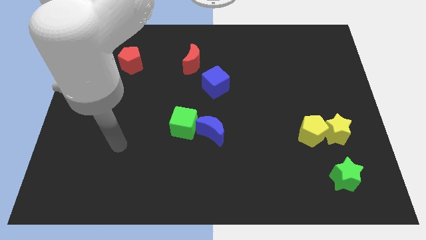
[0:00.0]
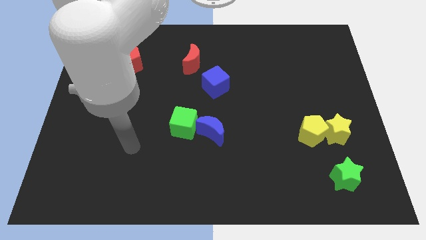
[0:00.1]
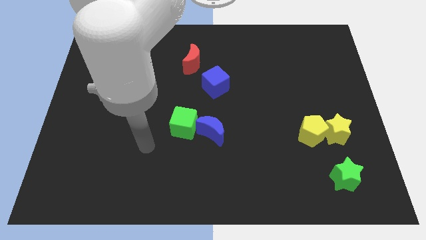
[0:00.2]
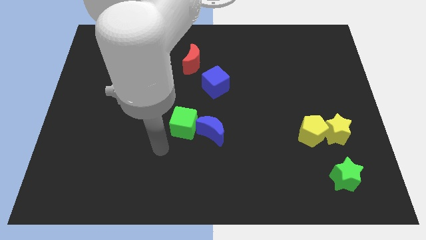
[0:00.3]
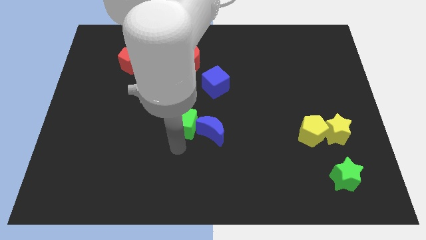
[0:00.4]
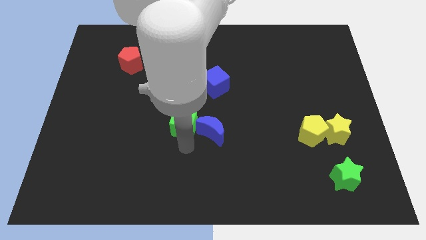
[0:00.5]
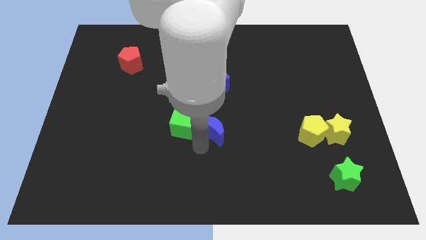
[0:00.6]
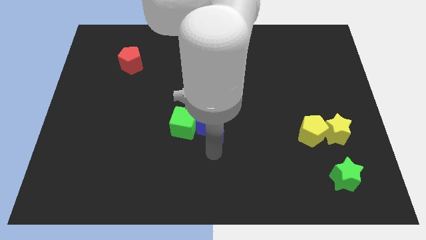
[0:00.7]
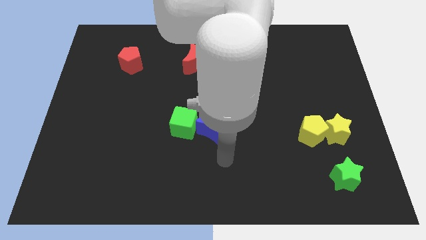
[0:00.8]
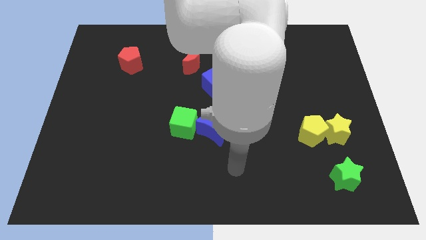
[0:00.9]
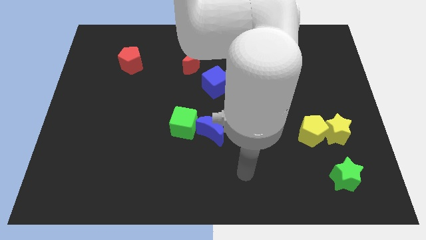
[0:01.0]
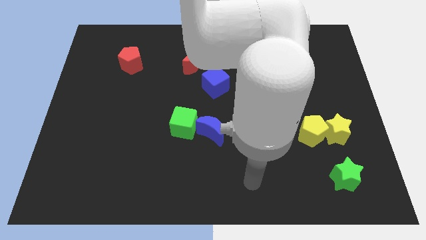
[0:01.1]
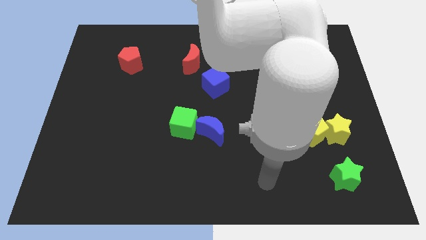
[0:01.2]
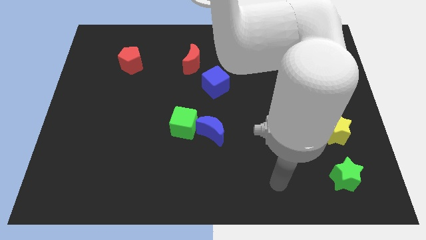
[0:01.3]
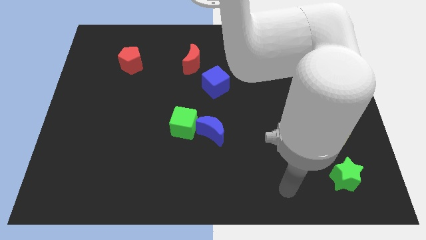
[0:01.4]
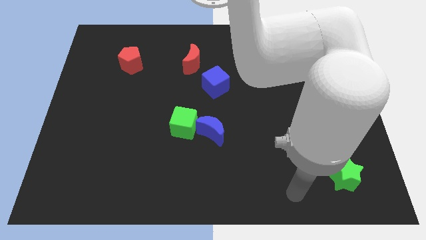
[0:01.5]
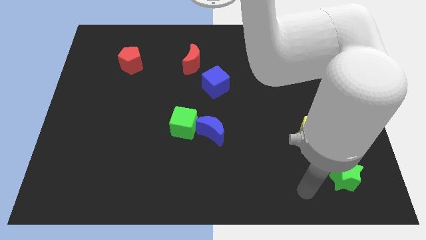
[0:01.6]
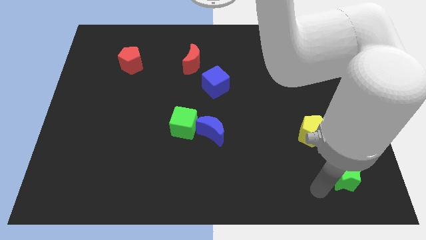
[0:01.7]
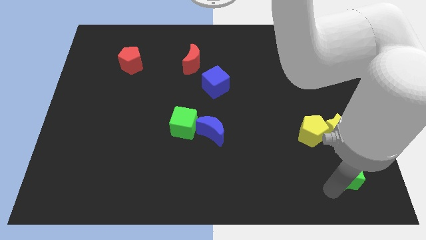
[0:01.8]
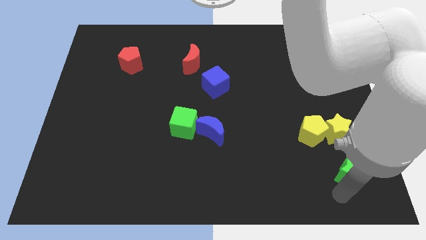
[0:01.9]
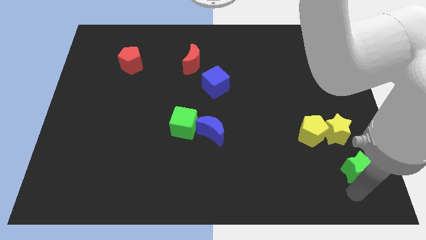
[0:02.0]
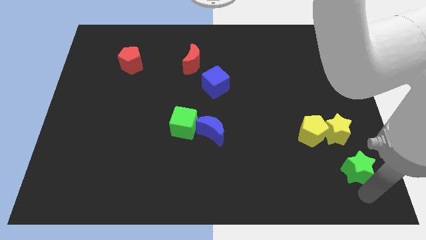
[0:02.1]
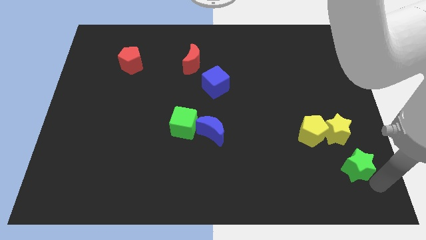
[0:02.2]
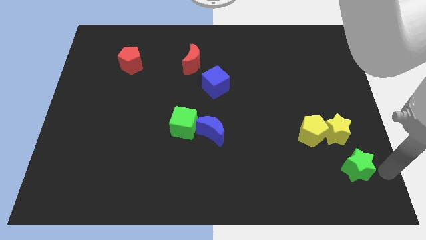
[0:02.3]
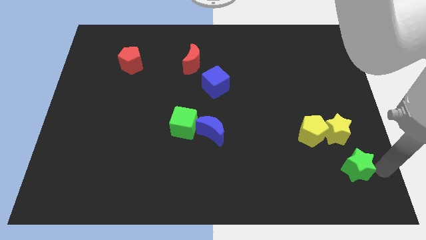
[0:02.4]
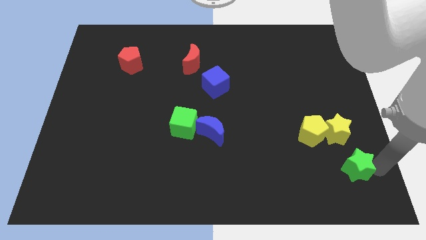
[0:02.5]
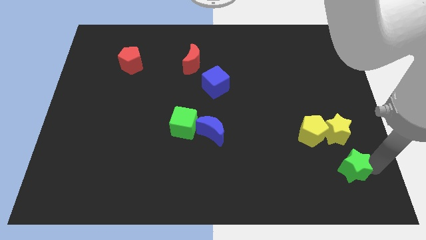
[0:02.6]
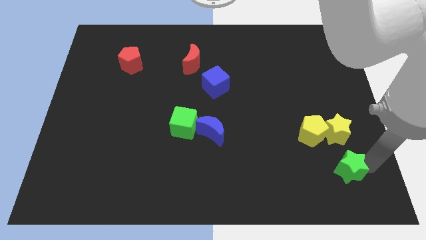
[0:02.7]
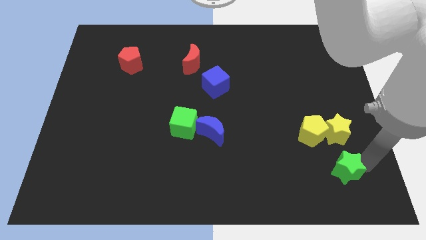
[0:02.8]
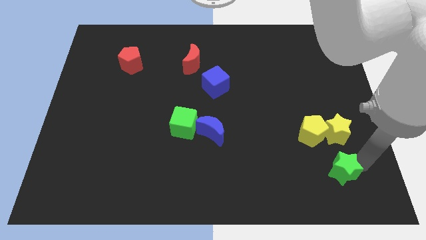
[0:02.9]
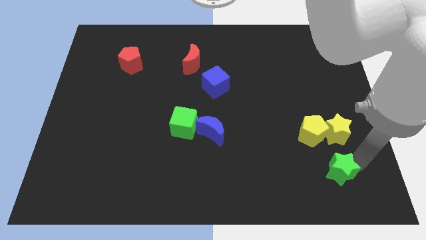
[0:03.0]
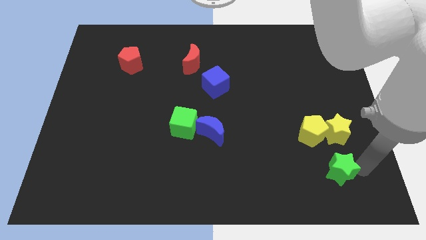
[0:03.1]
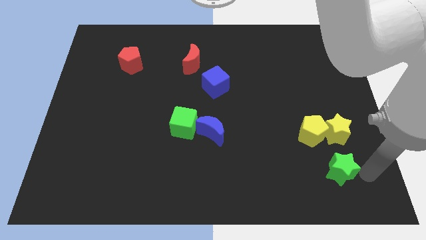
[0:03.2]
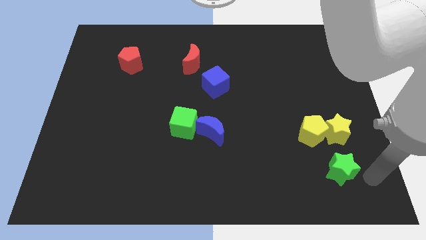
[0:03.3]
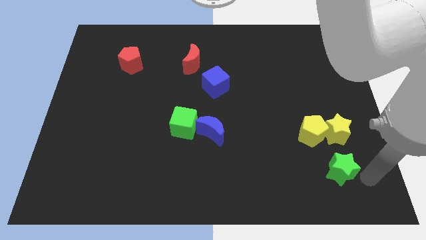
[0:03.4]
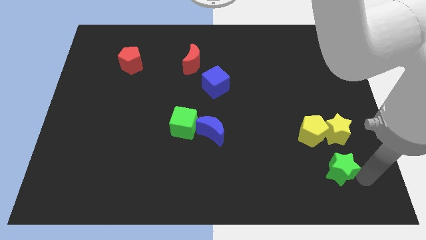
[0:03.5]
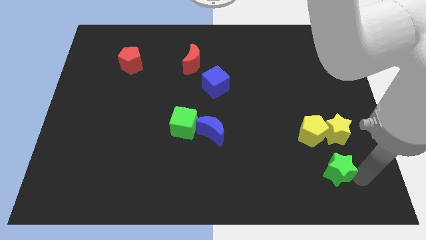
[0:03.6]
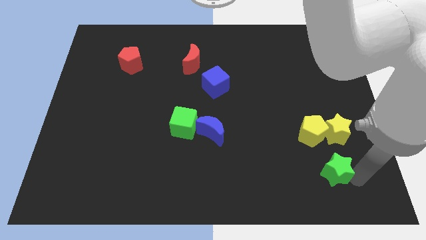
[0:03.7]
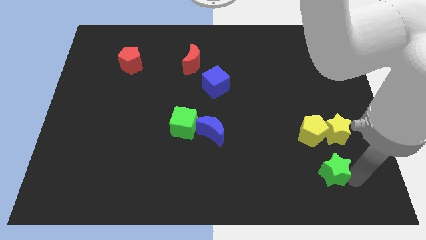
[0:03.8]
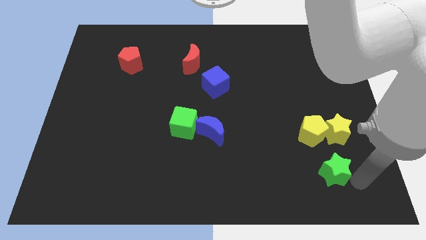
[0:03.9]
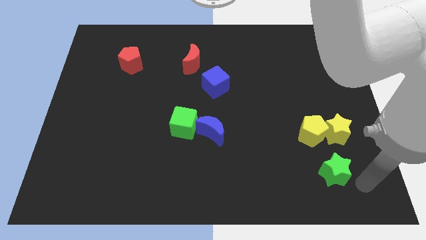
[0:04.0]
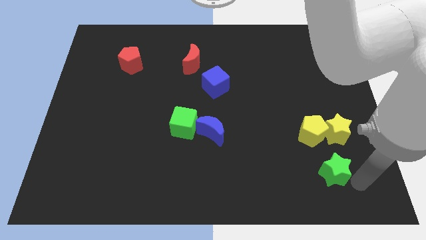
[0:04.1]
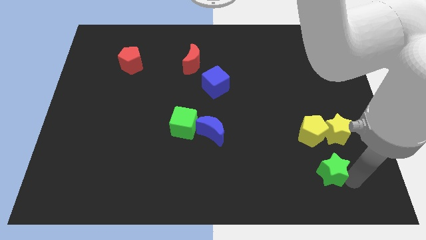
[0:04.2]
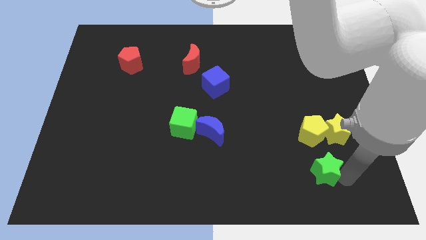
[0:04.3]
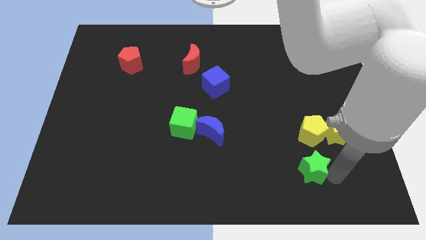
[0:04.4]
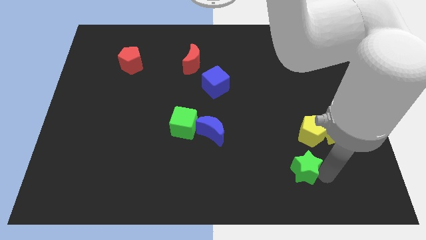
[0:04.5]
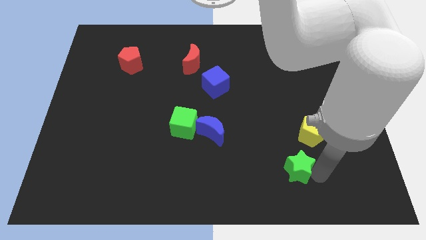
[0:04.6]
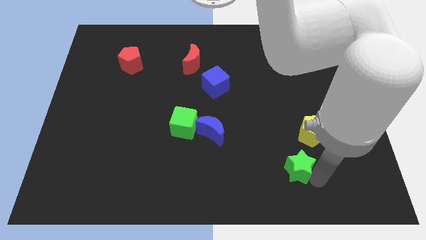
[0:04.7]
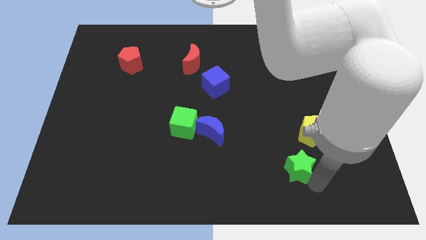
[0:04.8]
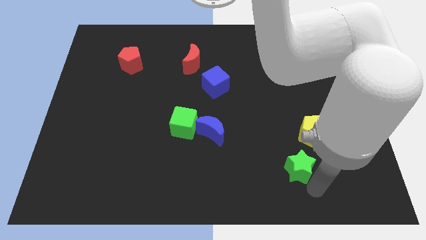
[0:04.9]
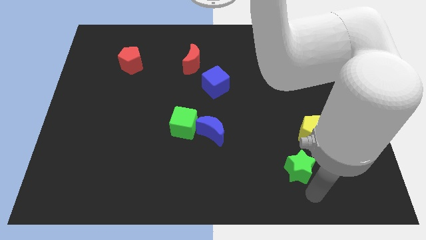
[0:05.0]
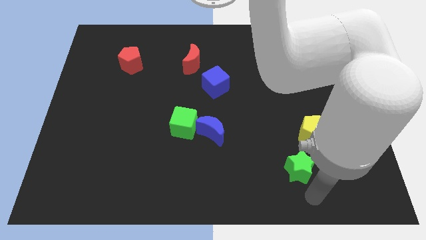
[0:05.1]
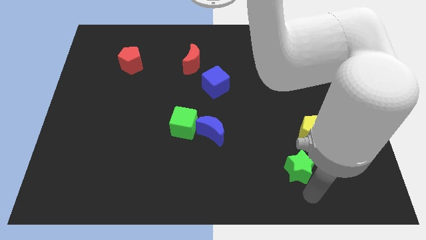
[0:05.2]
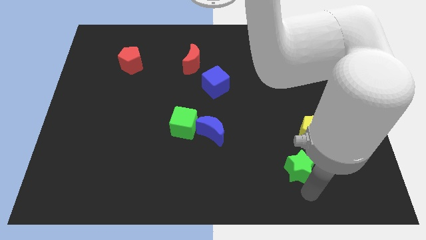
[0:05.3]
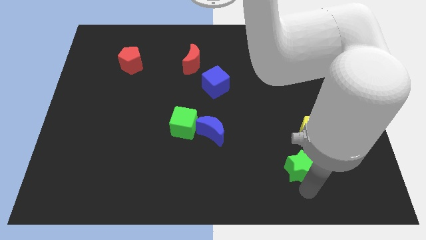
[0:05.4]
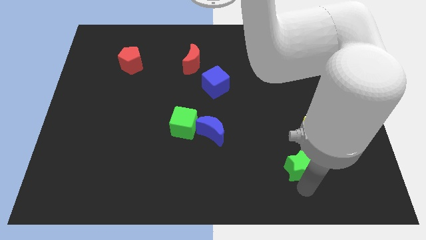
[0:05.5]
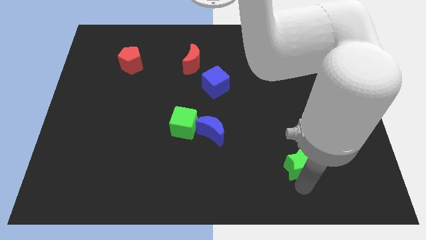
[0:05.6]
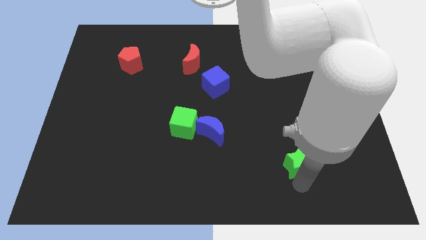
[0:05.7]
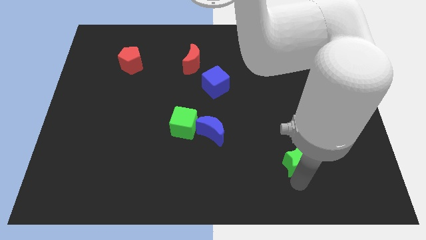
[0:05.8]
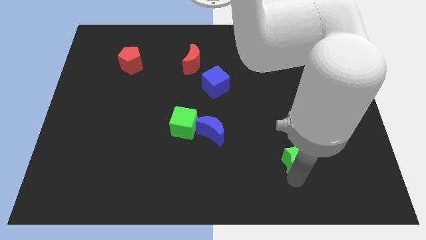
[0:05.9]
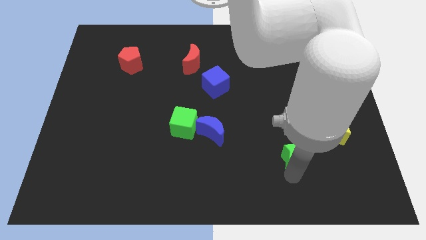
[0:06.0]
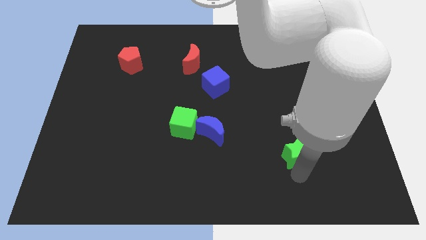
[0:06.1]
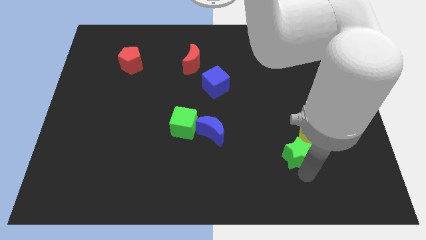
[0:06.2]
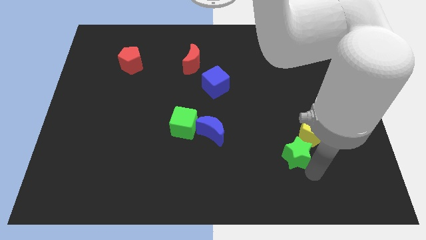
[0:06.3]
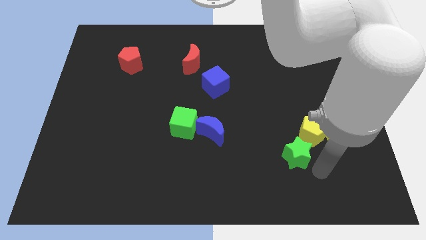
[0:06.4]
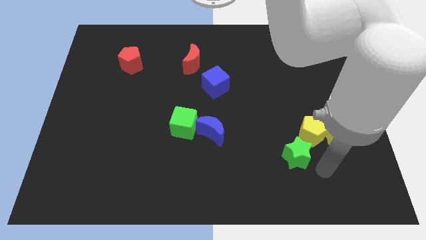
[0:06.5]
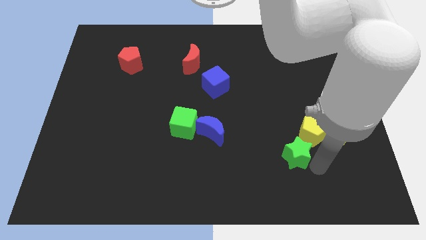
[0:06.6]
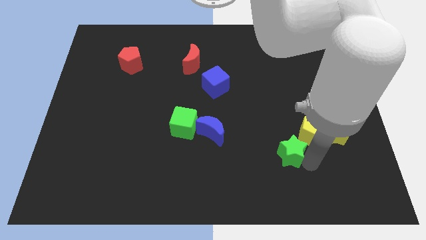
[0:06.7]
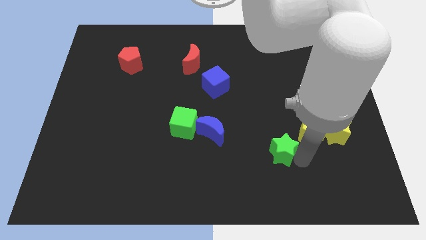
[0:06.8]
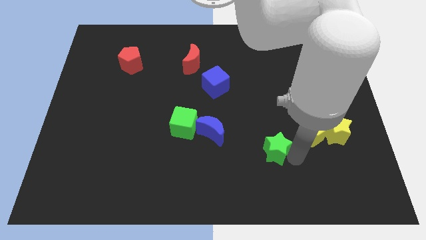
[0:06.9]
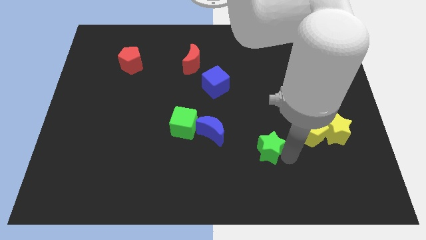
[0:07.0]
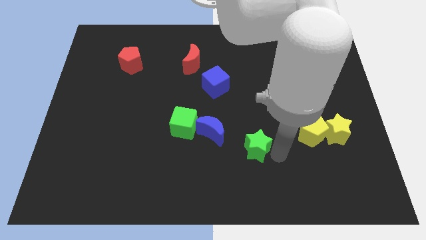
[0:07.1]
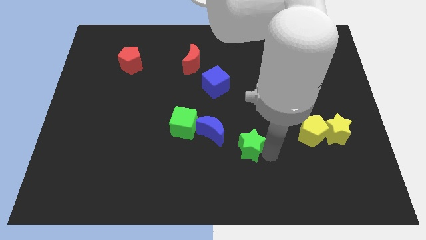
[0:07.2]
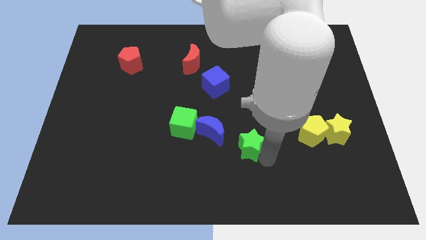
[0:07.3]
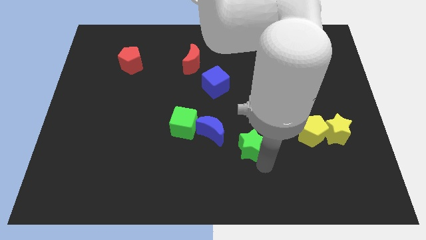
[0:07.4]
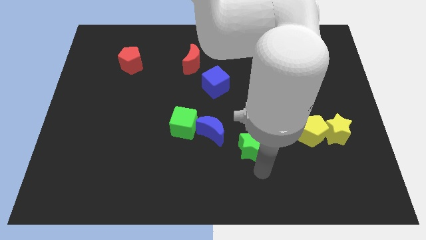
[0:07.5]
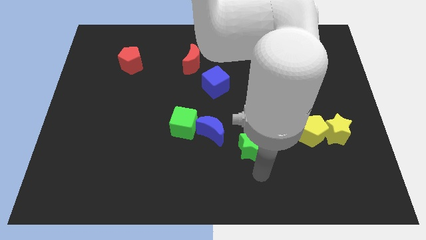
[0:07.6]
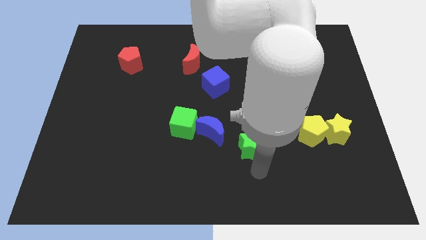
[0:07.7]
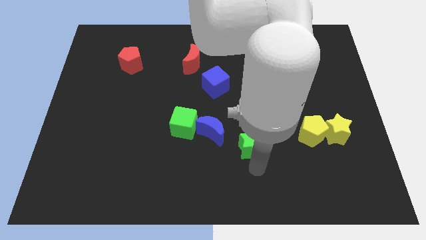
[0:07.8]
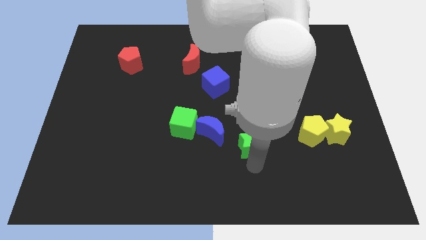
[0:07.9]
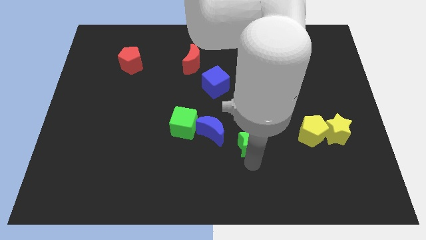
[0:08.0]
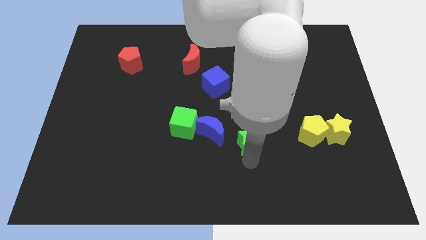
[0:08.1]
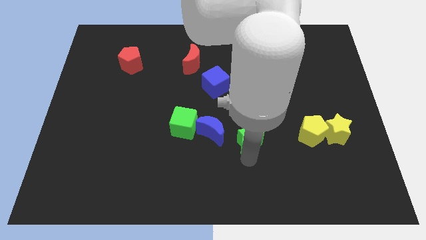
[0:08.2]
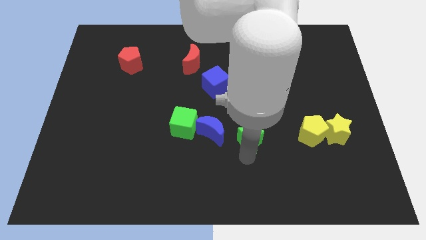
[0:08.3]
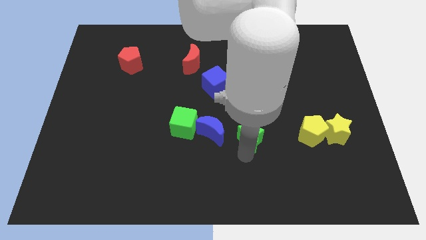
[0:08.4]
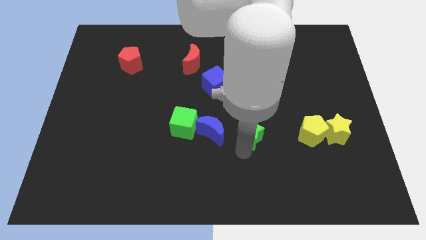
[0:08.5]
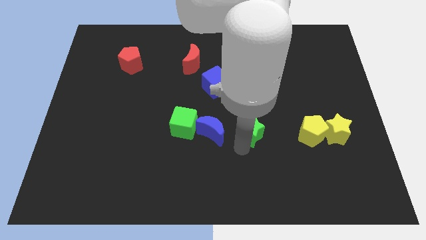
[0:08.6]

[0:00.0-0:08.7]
move the green star to the middle of the board
